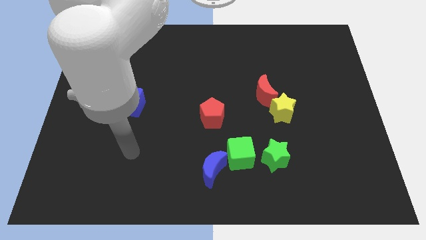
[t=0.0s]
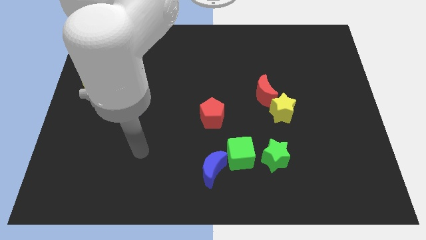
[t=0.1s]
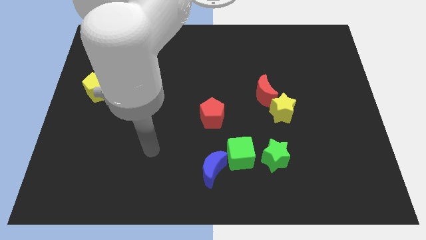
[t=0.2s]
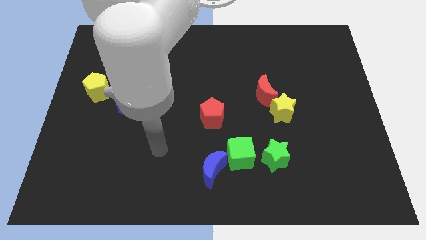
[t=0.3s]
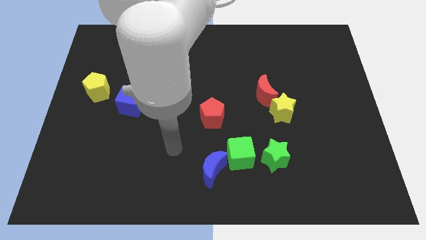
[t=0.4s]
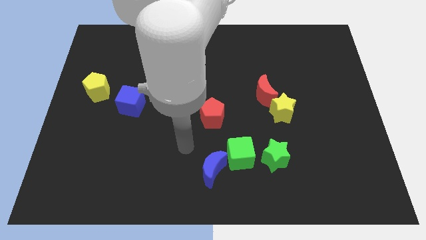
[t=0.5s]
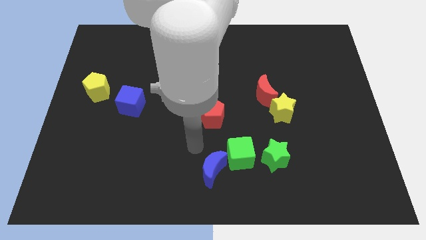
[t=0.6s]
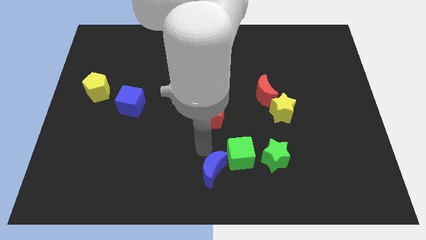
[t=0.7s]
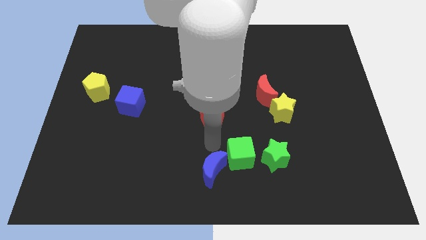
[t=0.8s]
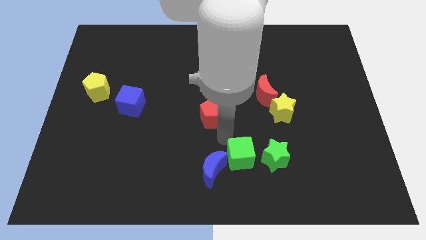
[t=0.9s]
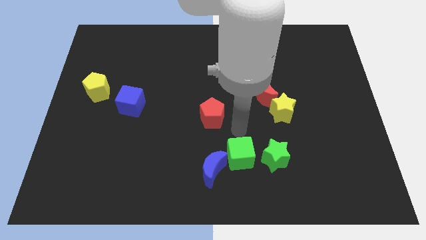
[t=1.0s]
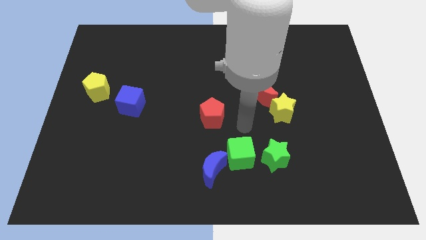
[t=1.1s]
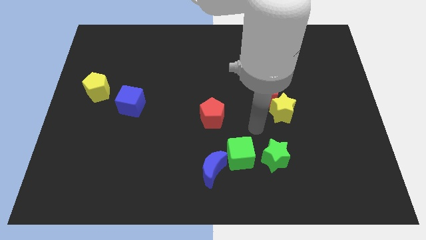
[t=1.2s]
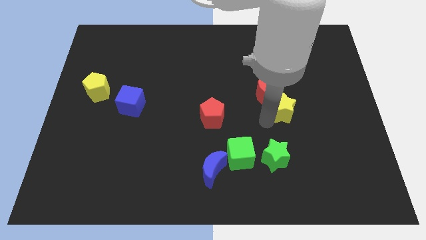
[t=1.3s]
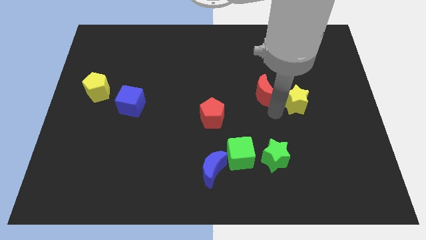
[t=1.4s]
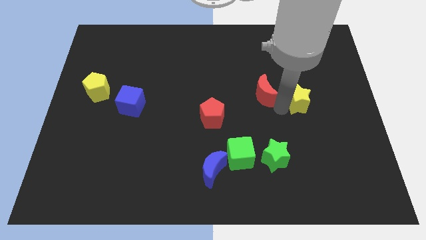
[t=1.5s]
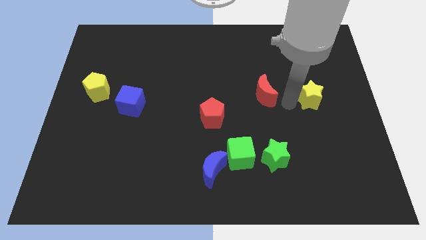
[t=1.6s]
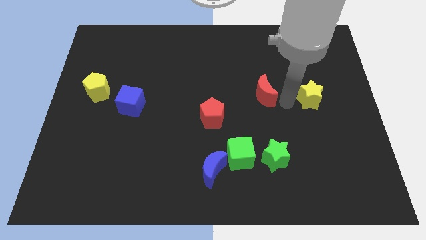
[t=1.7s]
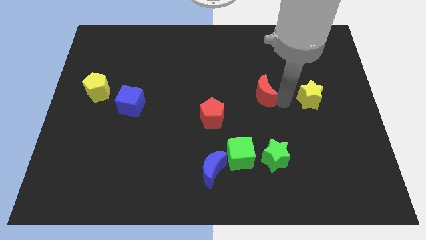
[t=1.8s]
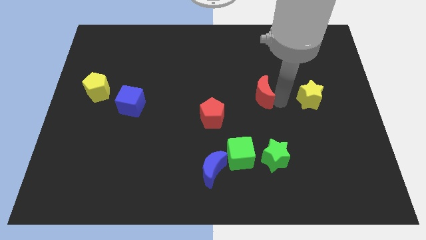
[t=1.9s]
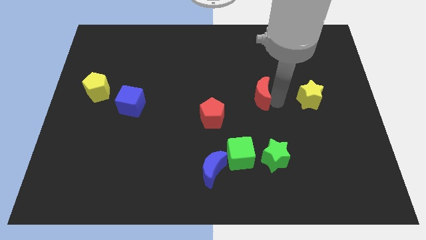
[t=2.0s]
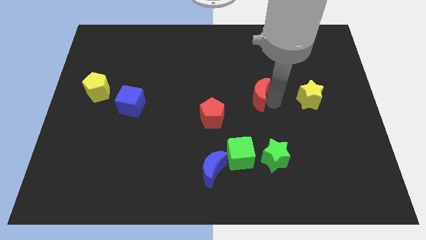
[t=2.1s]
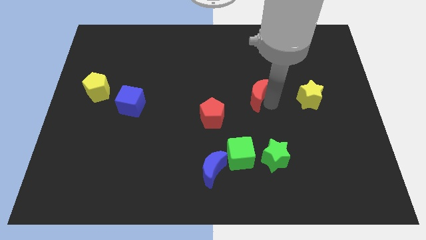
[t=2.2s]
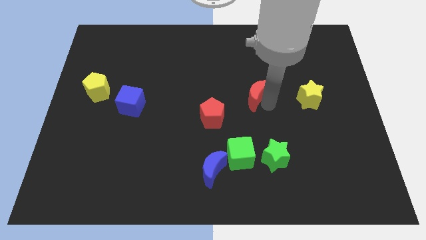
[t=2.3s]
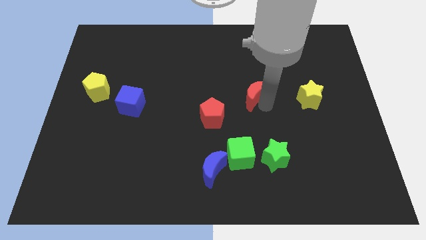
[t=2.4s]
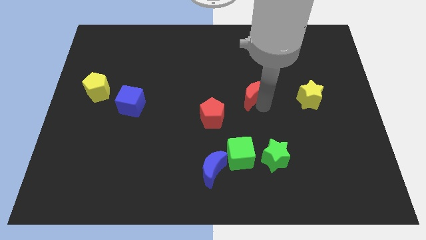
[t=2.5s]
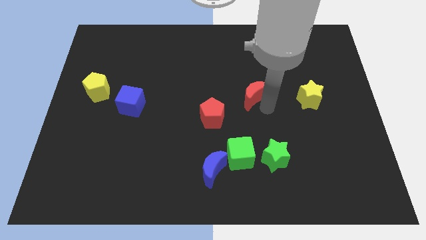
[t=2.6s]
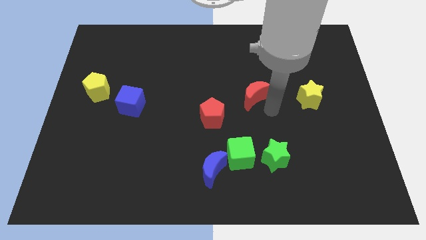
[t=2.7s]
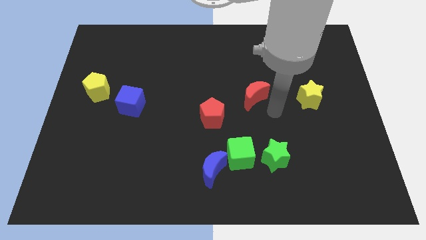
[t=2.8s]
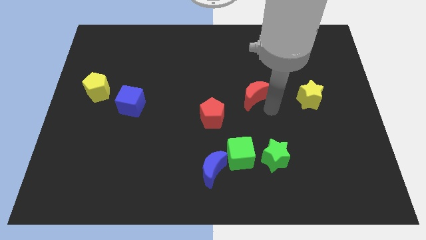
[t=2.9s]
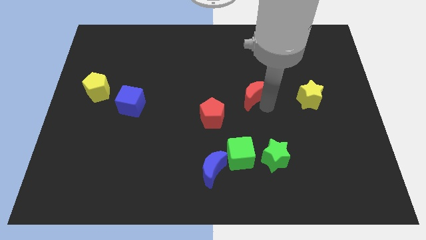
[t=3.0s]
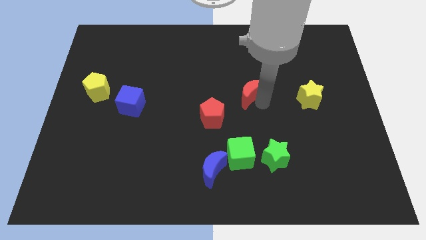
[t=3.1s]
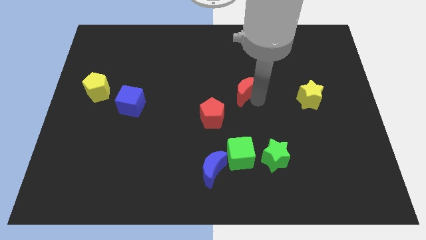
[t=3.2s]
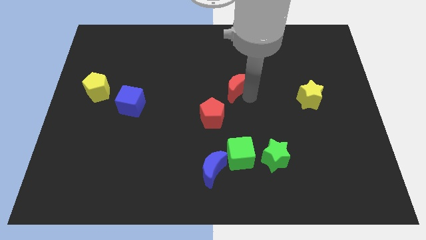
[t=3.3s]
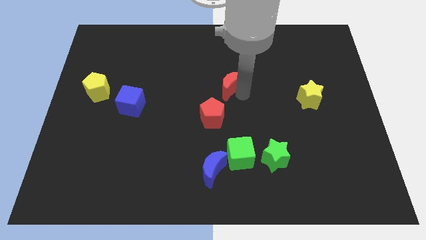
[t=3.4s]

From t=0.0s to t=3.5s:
slightly push the red moon up and left diagonally

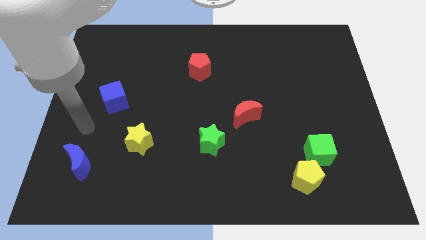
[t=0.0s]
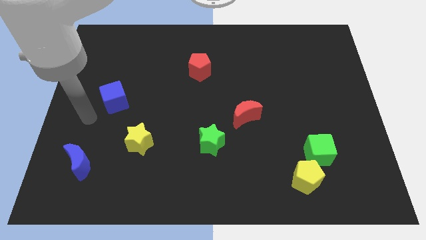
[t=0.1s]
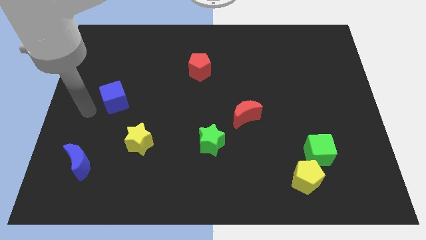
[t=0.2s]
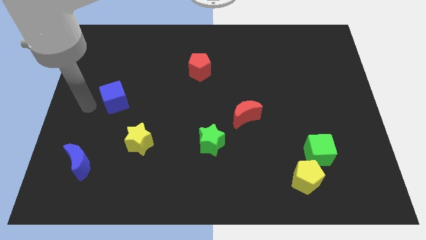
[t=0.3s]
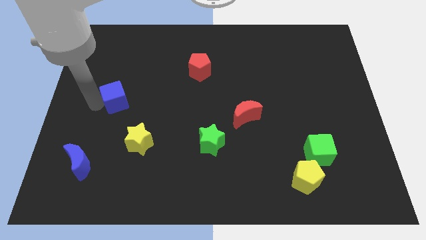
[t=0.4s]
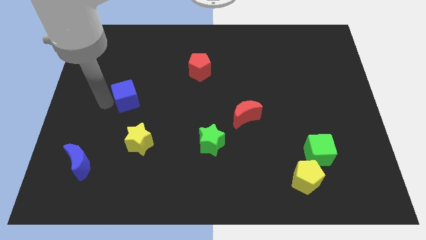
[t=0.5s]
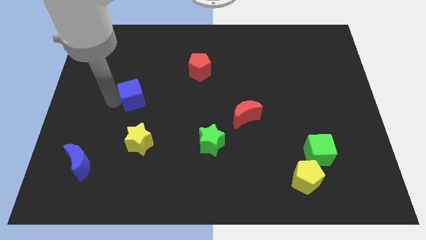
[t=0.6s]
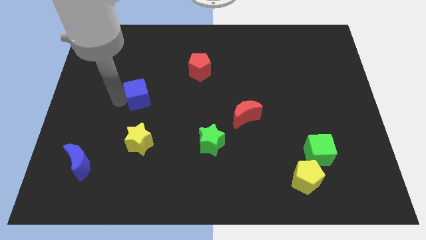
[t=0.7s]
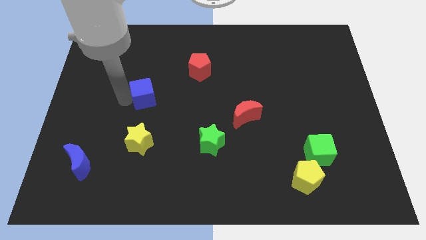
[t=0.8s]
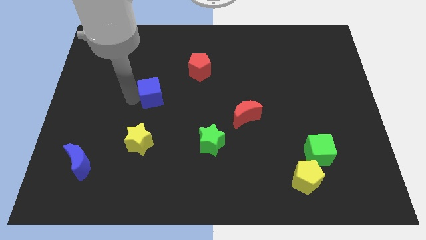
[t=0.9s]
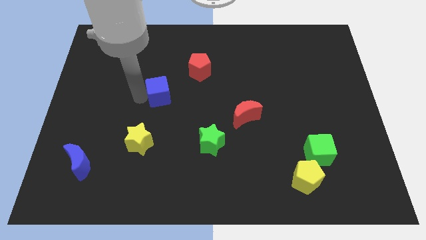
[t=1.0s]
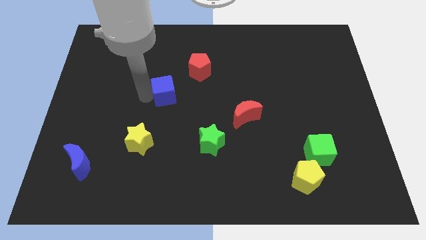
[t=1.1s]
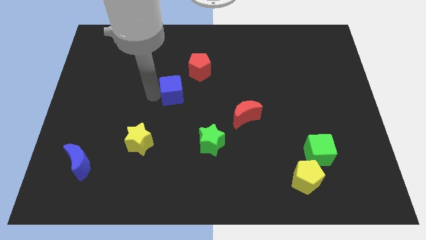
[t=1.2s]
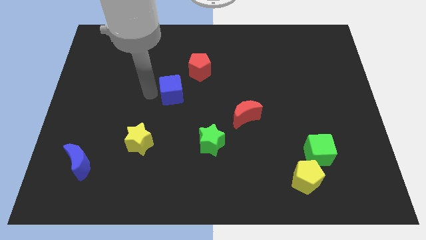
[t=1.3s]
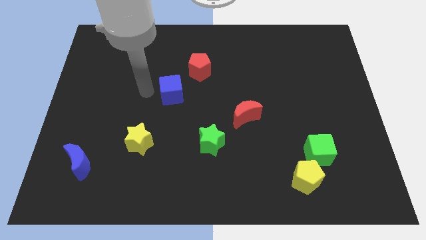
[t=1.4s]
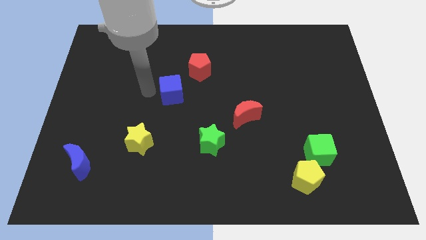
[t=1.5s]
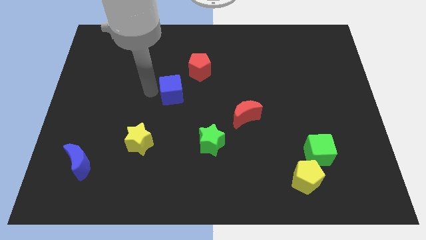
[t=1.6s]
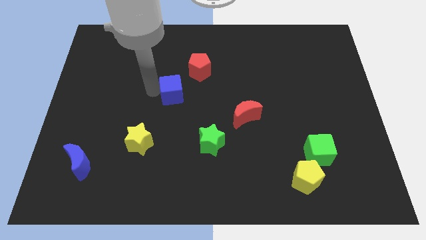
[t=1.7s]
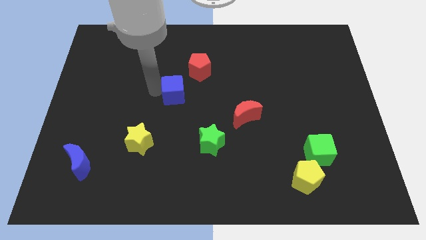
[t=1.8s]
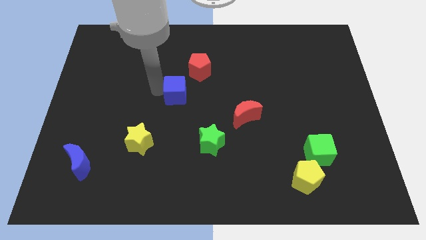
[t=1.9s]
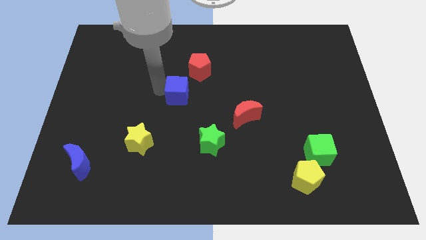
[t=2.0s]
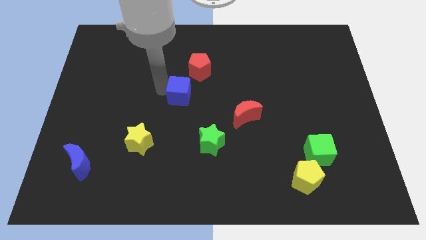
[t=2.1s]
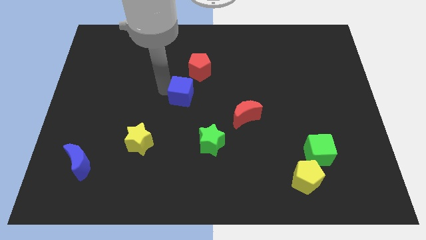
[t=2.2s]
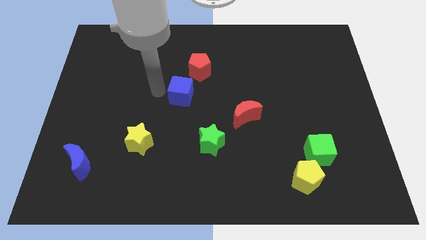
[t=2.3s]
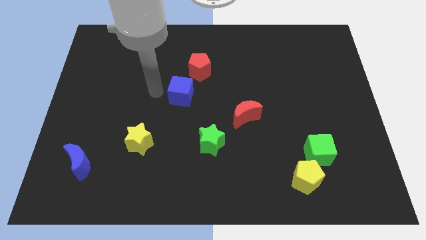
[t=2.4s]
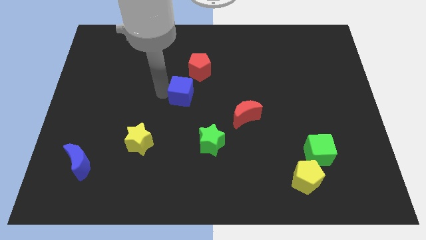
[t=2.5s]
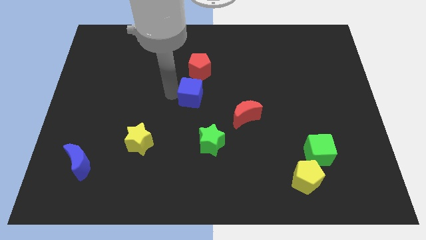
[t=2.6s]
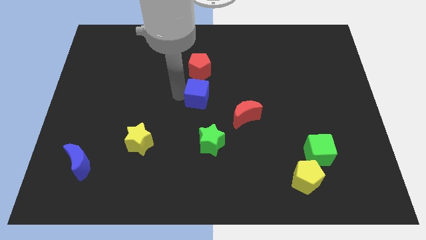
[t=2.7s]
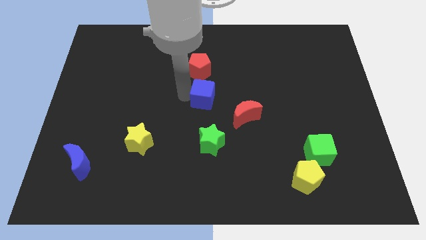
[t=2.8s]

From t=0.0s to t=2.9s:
slide the blue cube right

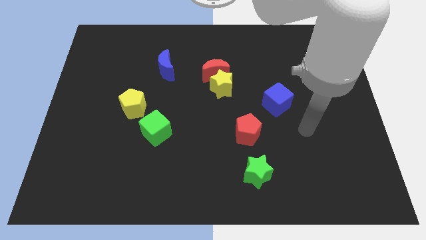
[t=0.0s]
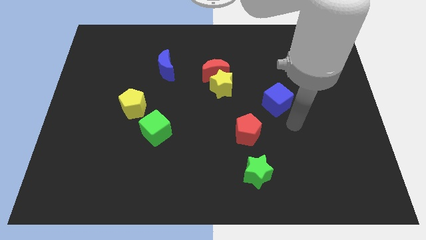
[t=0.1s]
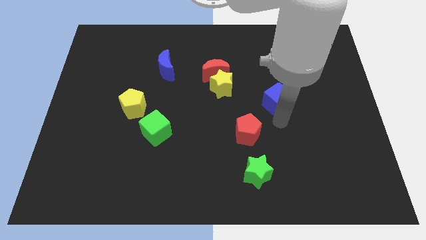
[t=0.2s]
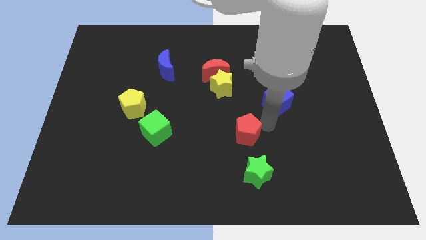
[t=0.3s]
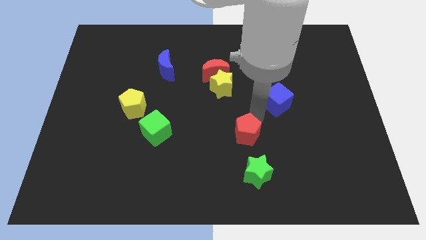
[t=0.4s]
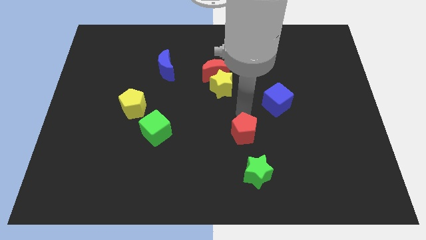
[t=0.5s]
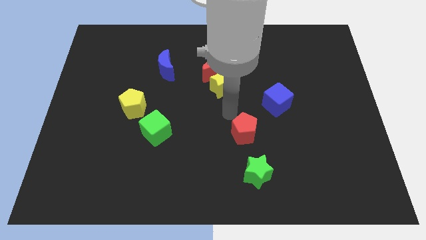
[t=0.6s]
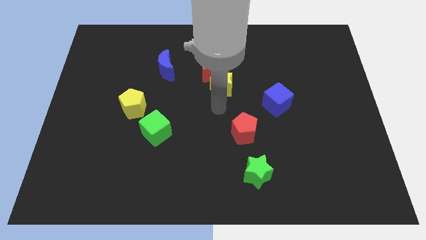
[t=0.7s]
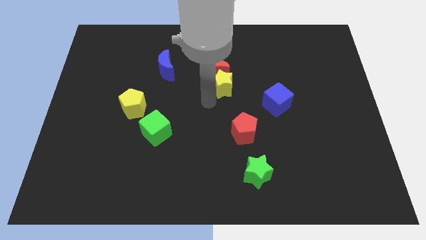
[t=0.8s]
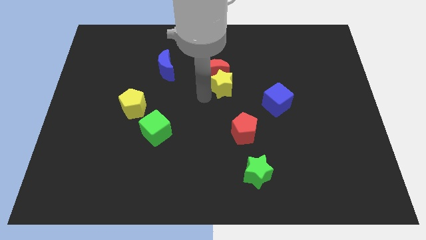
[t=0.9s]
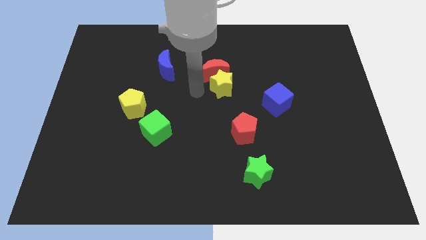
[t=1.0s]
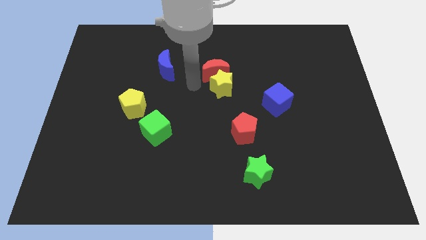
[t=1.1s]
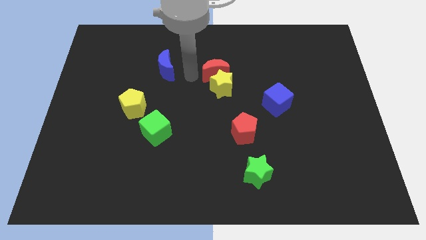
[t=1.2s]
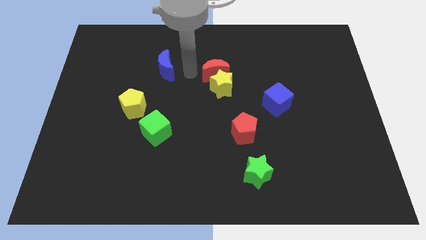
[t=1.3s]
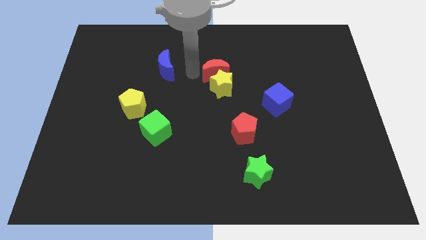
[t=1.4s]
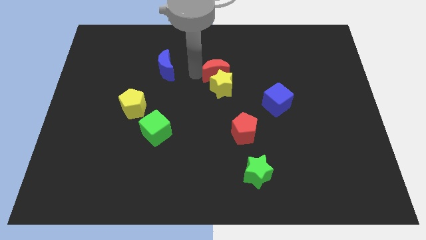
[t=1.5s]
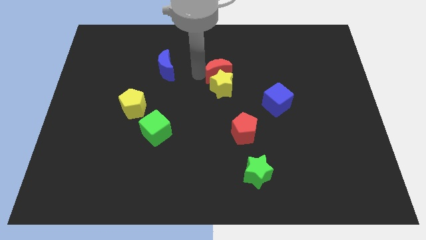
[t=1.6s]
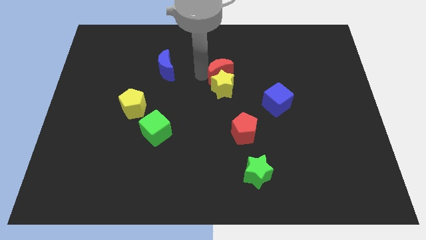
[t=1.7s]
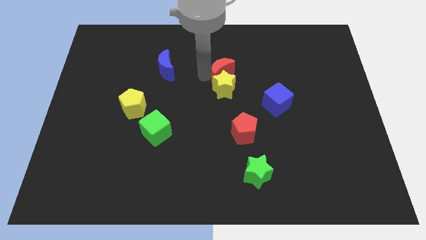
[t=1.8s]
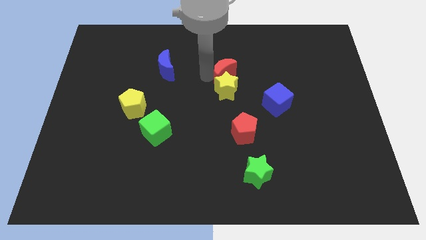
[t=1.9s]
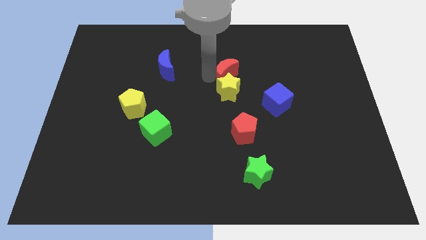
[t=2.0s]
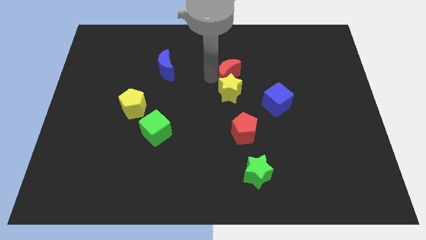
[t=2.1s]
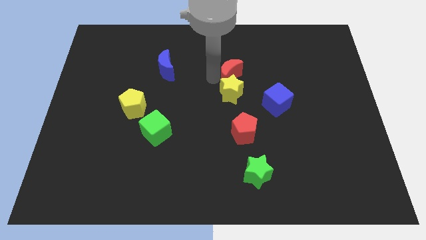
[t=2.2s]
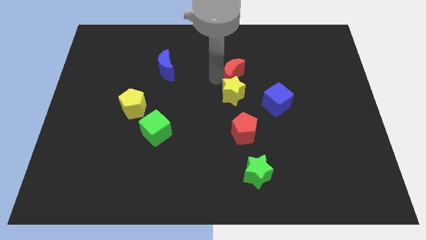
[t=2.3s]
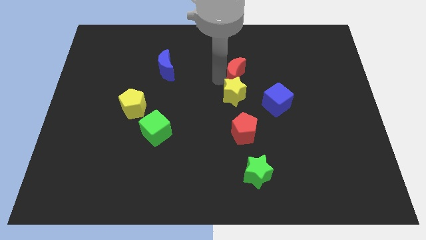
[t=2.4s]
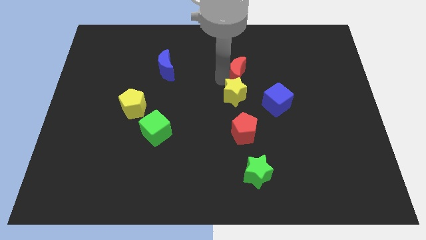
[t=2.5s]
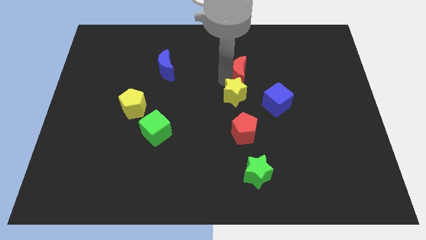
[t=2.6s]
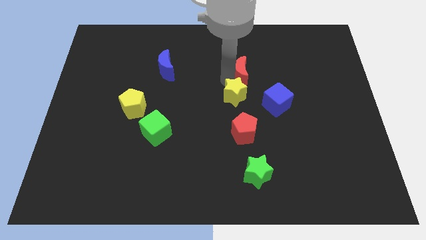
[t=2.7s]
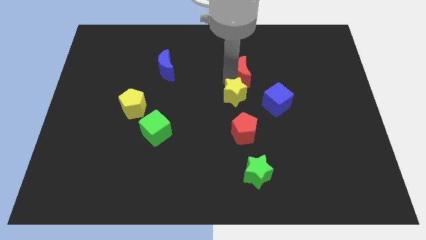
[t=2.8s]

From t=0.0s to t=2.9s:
slightly move the red moon right
